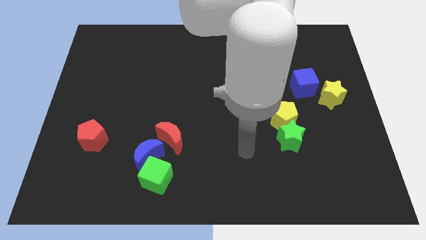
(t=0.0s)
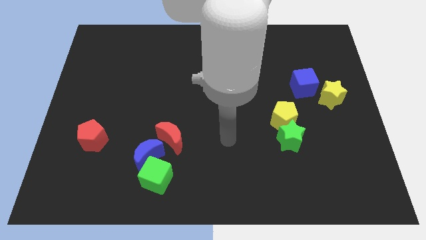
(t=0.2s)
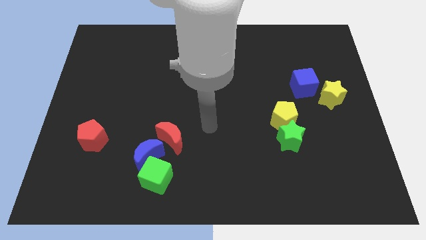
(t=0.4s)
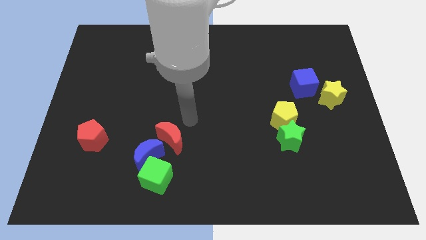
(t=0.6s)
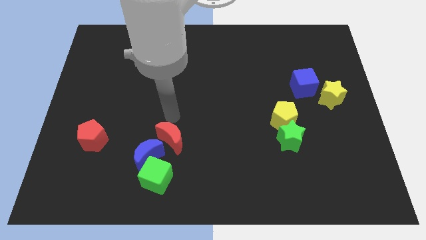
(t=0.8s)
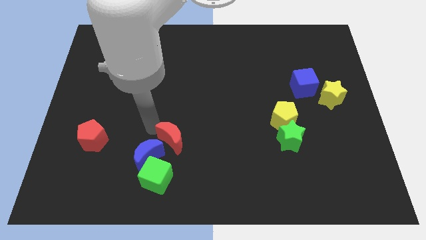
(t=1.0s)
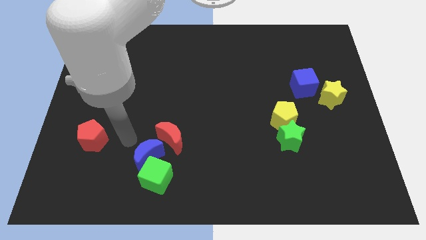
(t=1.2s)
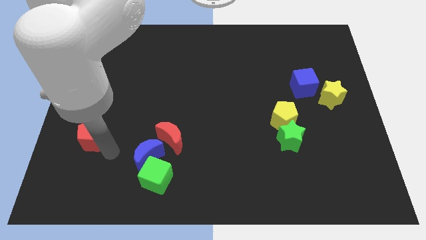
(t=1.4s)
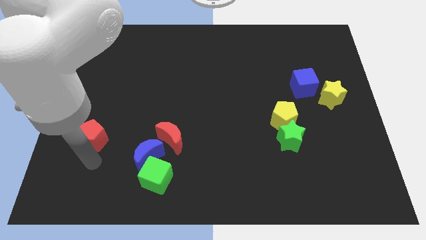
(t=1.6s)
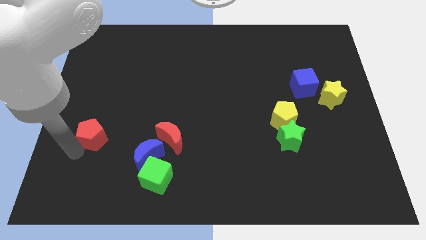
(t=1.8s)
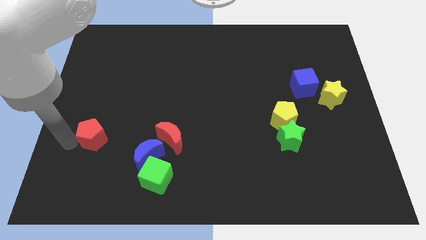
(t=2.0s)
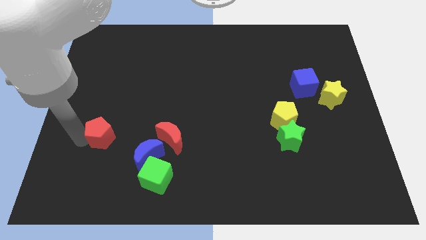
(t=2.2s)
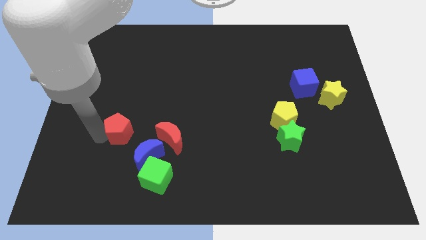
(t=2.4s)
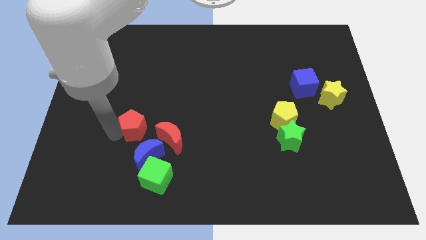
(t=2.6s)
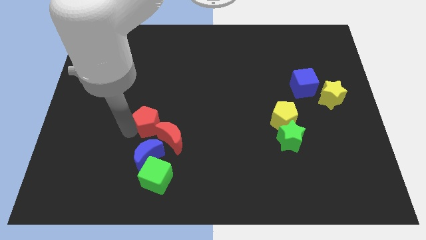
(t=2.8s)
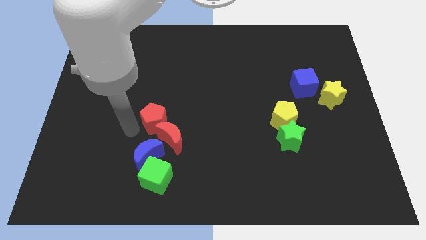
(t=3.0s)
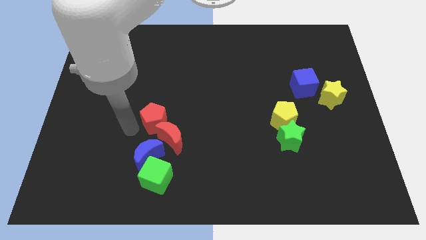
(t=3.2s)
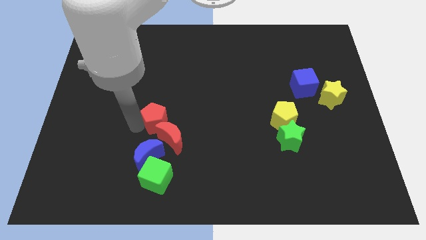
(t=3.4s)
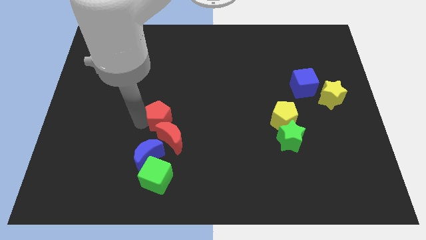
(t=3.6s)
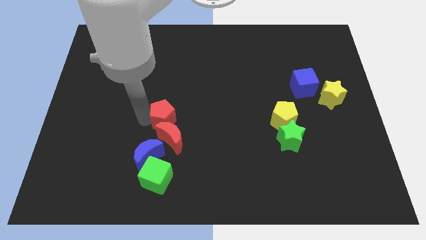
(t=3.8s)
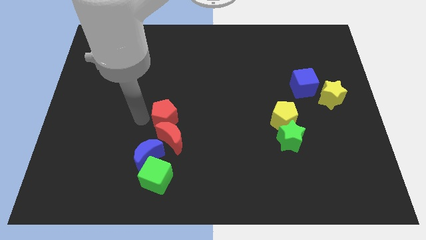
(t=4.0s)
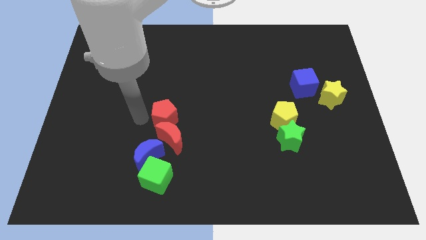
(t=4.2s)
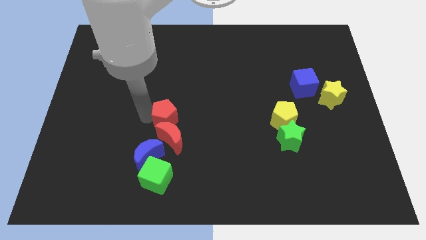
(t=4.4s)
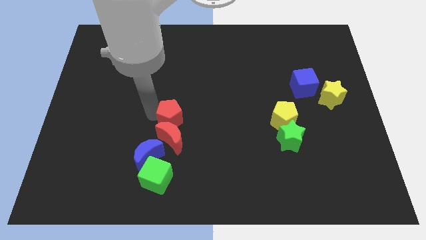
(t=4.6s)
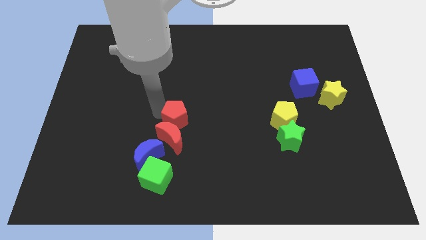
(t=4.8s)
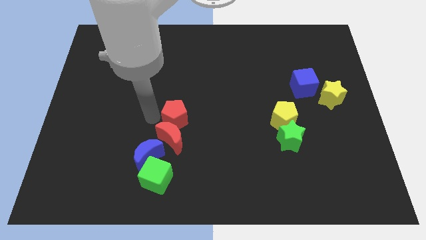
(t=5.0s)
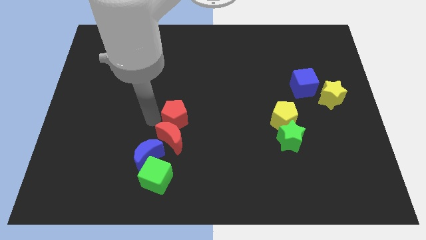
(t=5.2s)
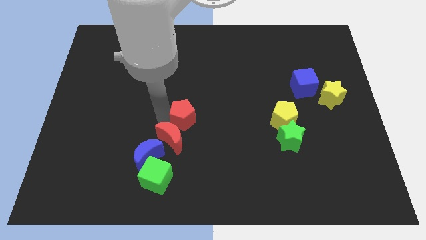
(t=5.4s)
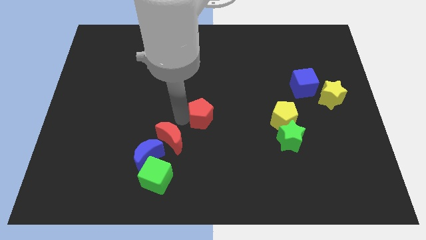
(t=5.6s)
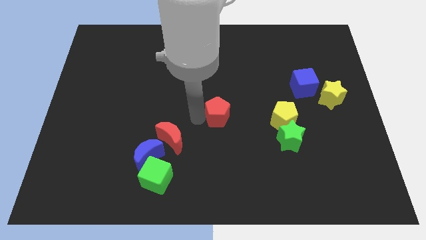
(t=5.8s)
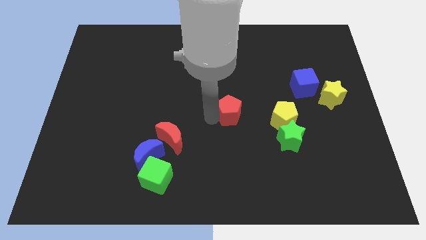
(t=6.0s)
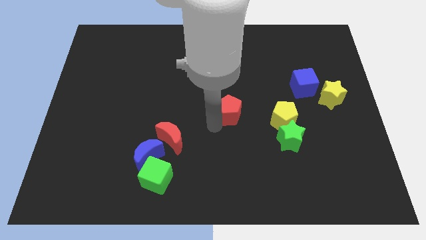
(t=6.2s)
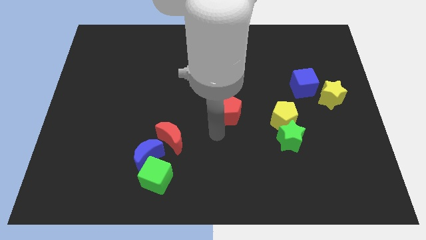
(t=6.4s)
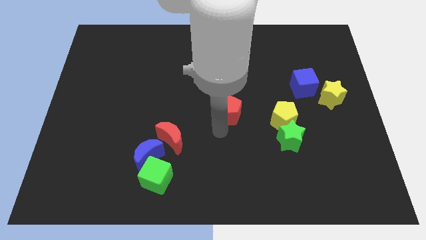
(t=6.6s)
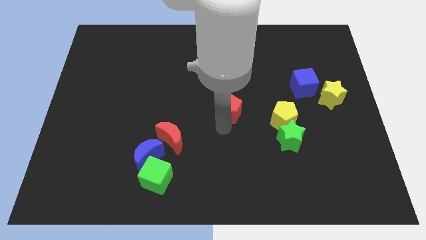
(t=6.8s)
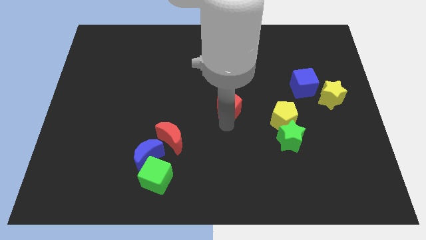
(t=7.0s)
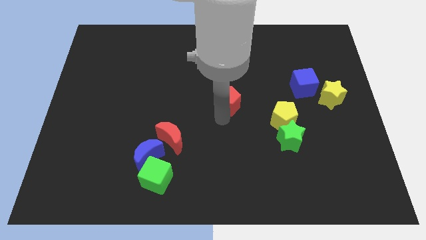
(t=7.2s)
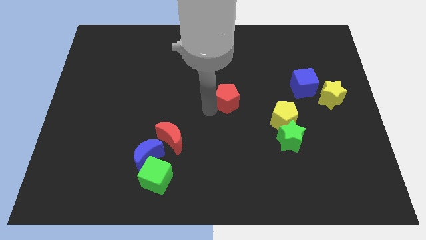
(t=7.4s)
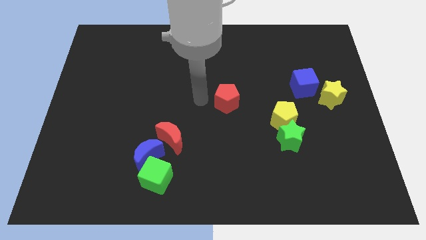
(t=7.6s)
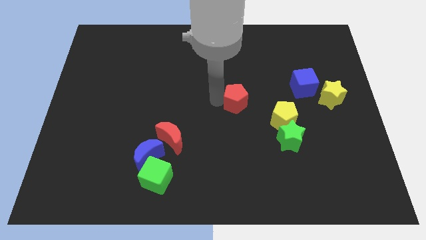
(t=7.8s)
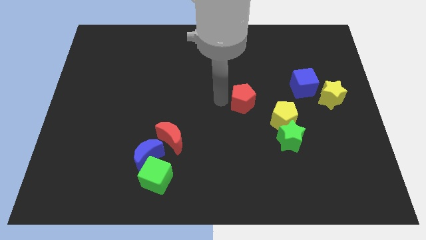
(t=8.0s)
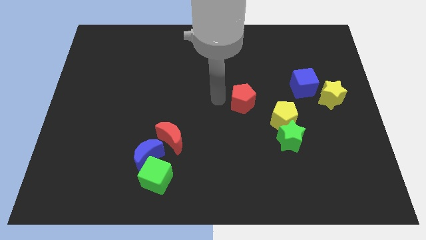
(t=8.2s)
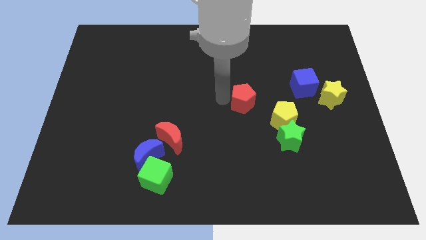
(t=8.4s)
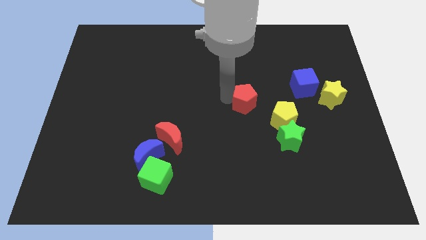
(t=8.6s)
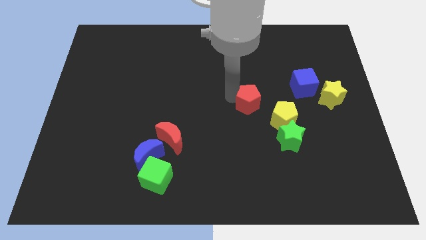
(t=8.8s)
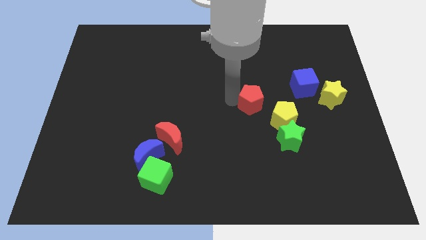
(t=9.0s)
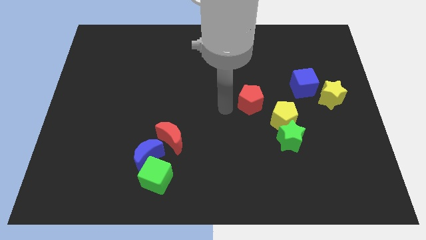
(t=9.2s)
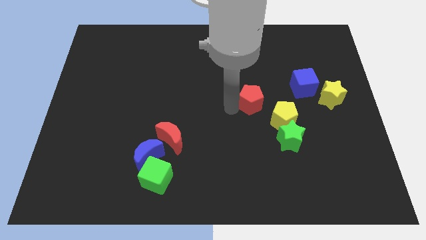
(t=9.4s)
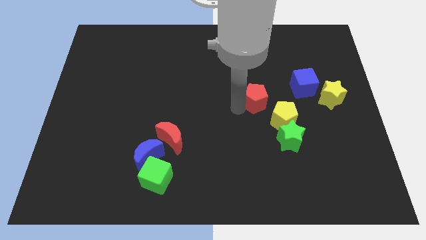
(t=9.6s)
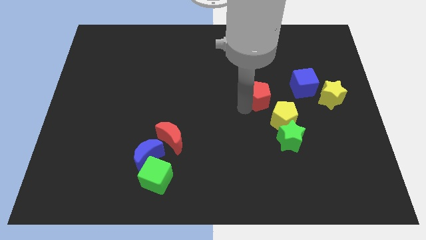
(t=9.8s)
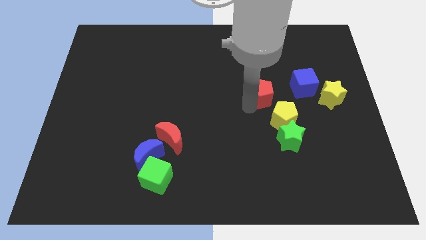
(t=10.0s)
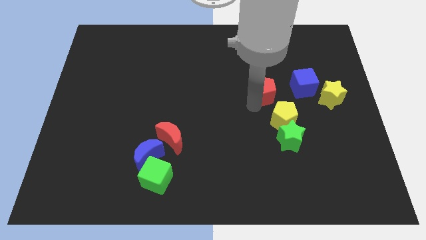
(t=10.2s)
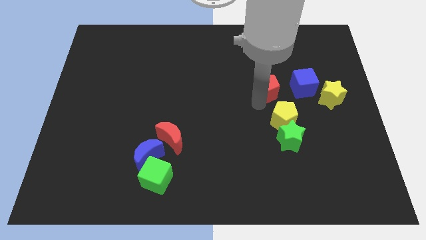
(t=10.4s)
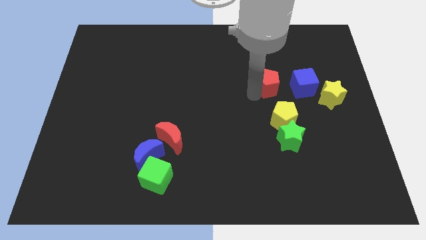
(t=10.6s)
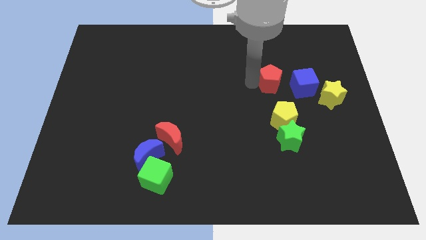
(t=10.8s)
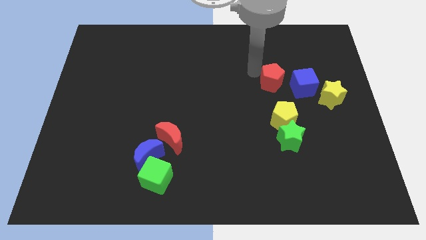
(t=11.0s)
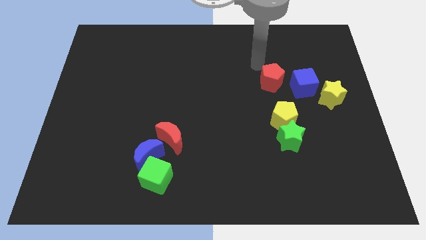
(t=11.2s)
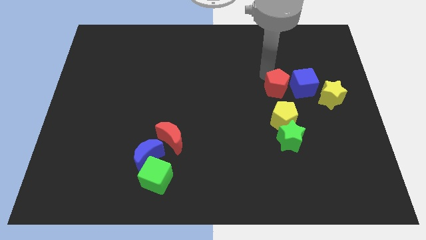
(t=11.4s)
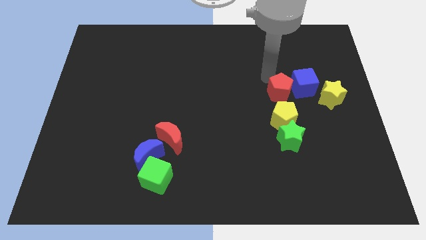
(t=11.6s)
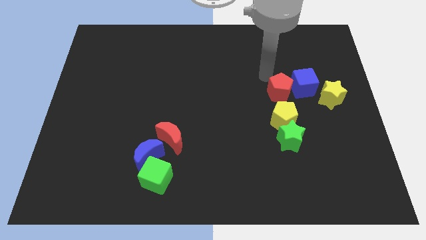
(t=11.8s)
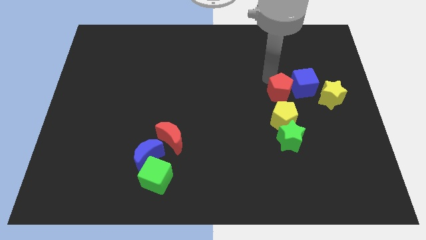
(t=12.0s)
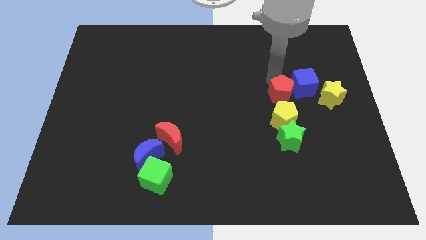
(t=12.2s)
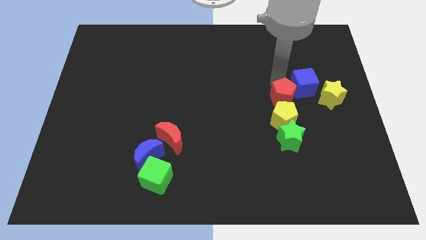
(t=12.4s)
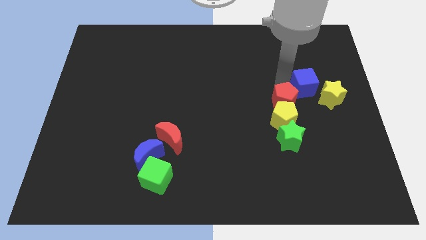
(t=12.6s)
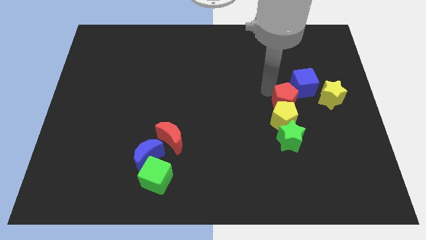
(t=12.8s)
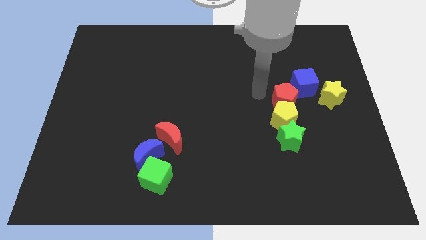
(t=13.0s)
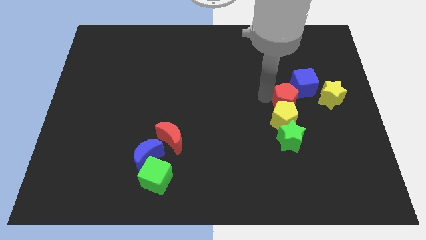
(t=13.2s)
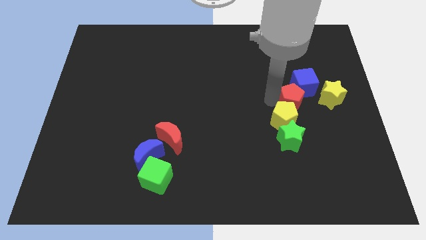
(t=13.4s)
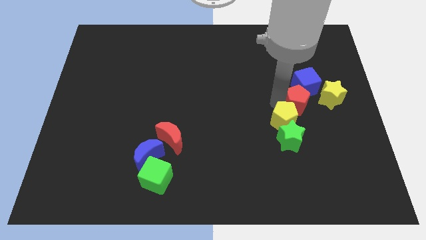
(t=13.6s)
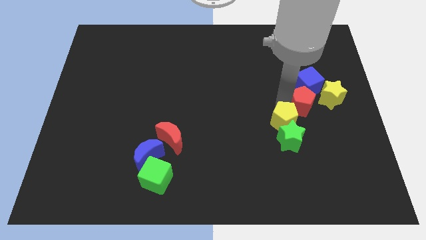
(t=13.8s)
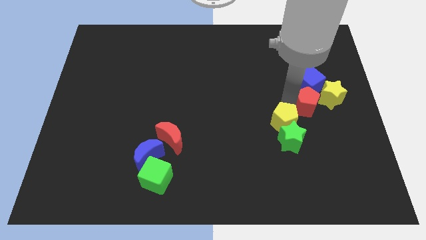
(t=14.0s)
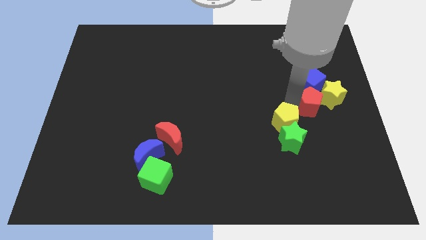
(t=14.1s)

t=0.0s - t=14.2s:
slide the red pentagon next to the yellow star
